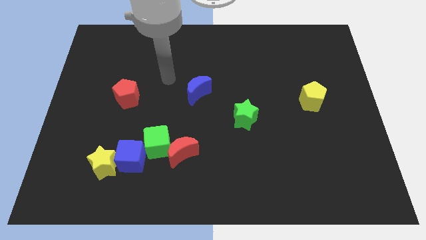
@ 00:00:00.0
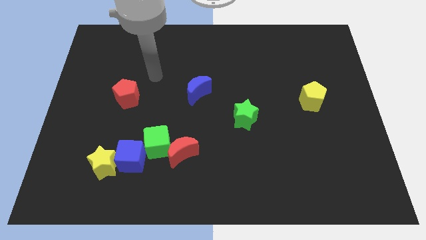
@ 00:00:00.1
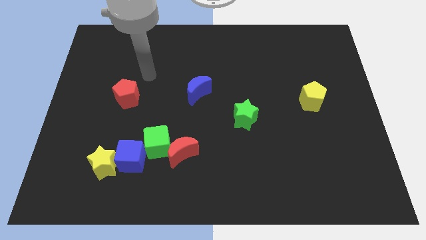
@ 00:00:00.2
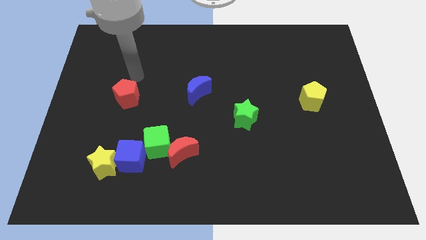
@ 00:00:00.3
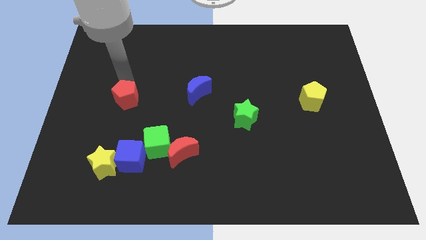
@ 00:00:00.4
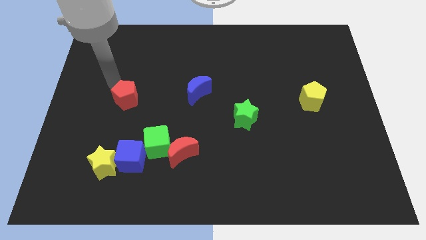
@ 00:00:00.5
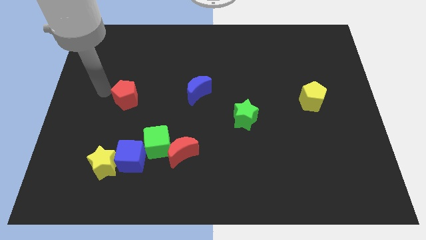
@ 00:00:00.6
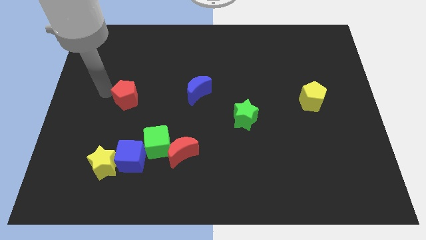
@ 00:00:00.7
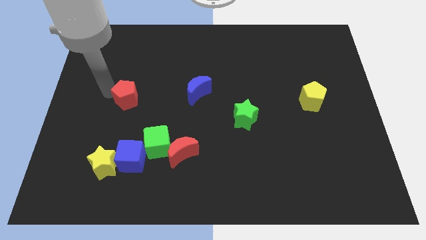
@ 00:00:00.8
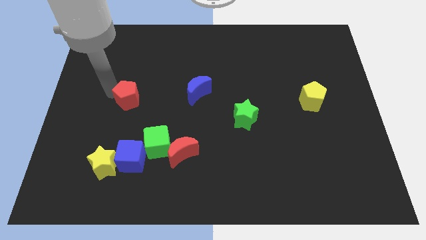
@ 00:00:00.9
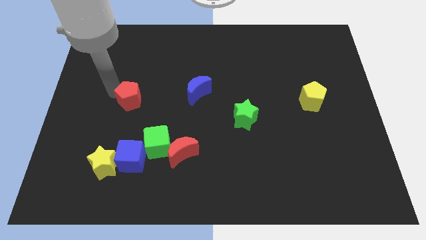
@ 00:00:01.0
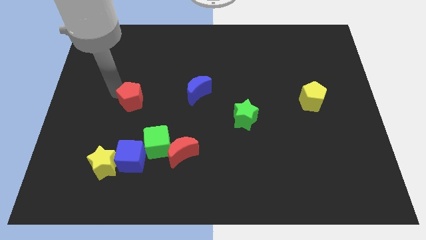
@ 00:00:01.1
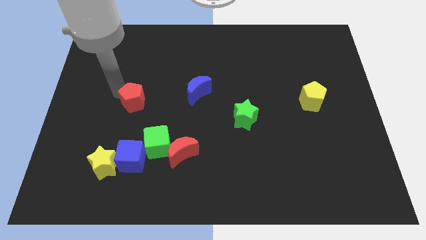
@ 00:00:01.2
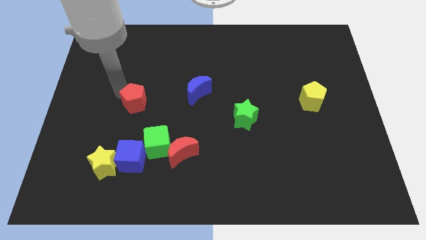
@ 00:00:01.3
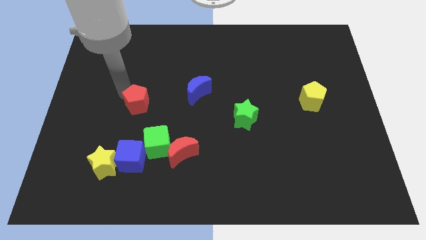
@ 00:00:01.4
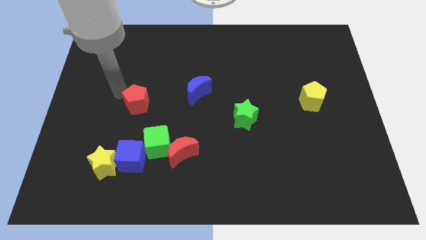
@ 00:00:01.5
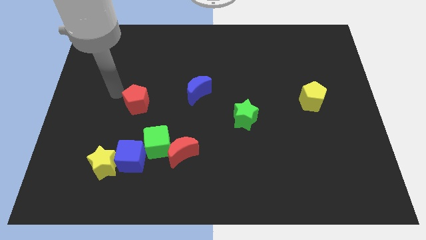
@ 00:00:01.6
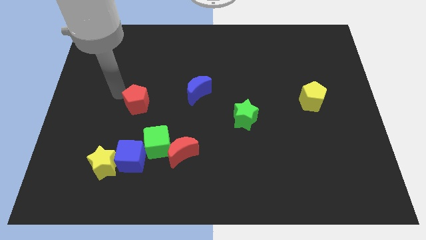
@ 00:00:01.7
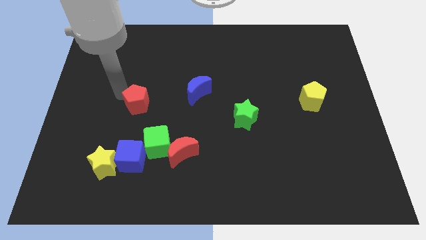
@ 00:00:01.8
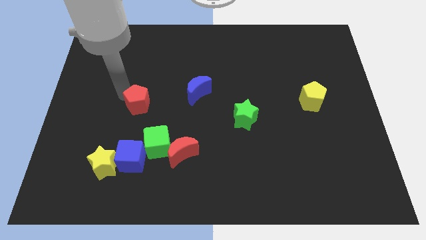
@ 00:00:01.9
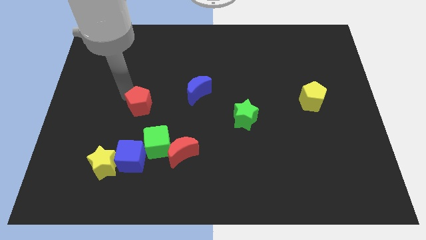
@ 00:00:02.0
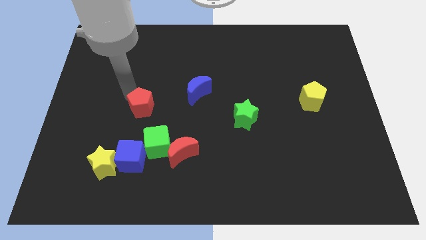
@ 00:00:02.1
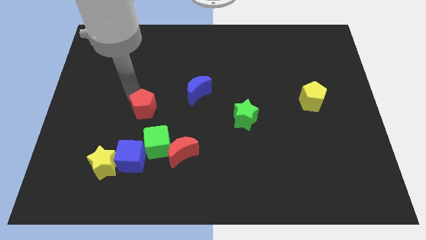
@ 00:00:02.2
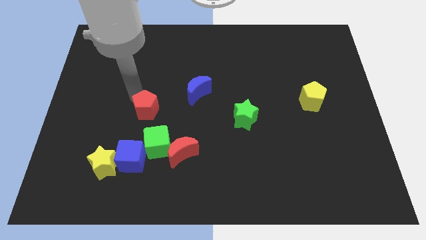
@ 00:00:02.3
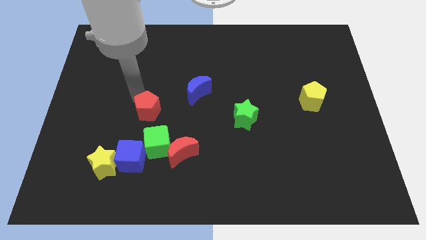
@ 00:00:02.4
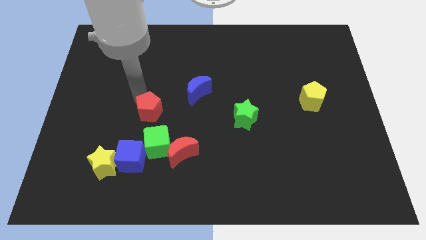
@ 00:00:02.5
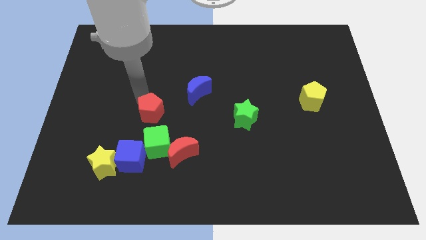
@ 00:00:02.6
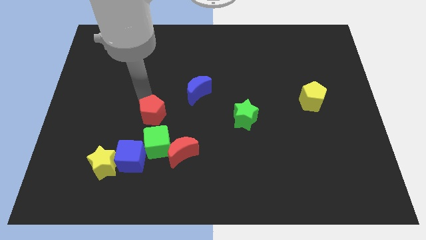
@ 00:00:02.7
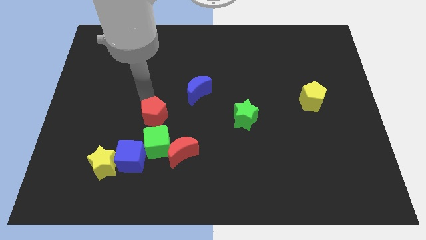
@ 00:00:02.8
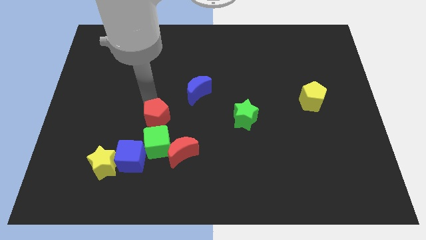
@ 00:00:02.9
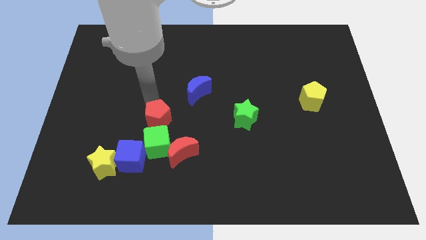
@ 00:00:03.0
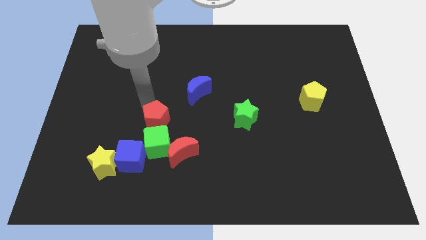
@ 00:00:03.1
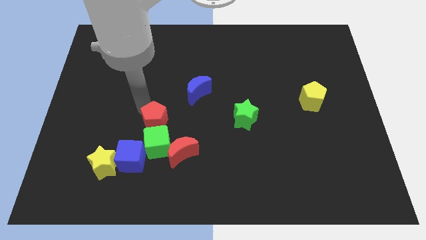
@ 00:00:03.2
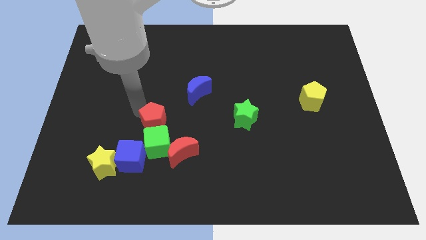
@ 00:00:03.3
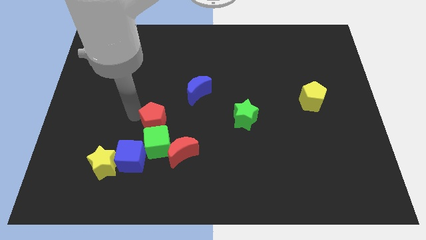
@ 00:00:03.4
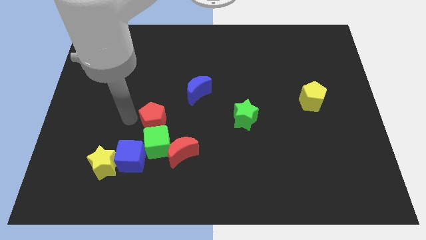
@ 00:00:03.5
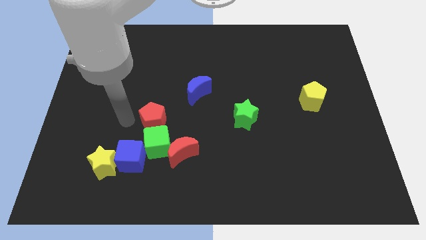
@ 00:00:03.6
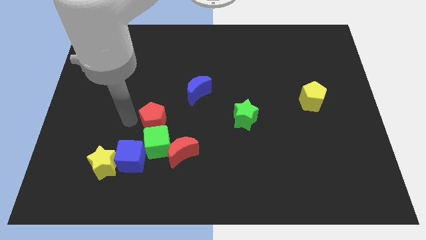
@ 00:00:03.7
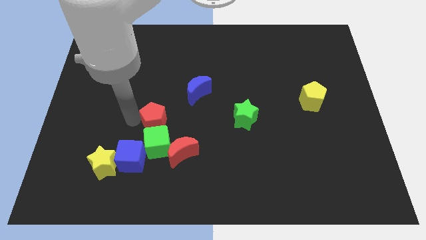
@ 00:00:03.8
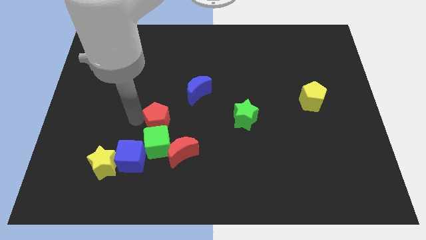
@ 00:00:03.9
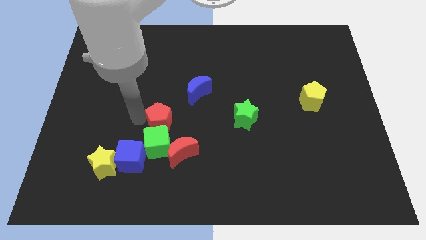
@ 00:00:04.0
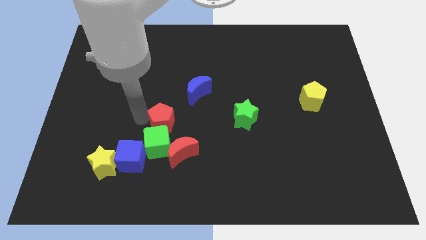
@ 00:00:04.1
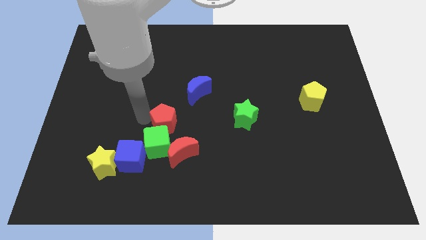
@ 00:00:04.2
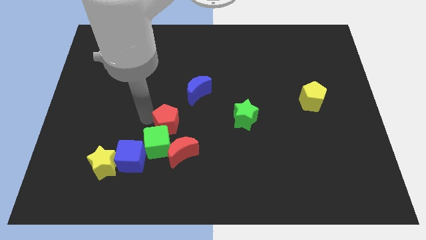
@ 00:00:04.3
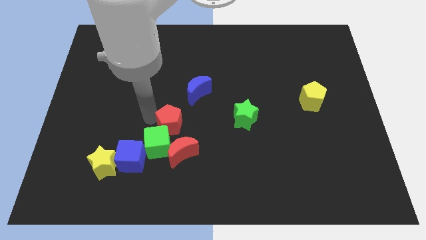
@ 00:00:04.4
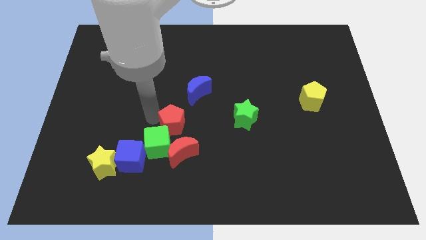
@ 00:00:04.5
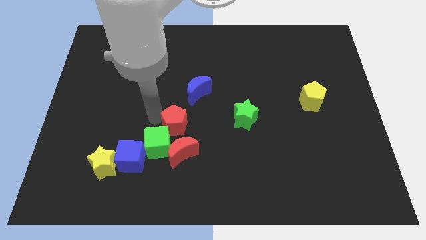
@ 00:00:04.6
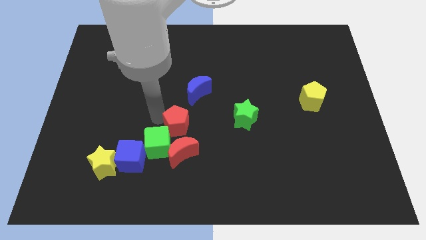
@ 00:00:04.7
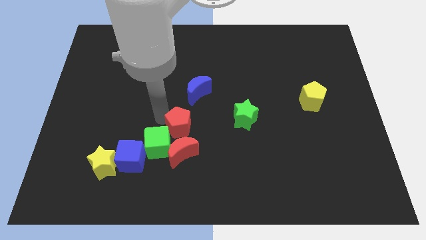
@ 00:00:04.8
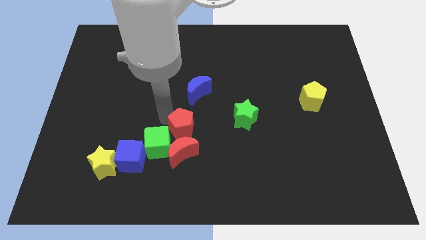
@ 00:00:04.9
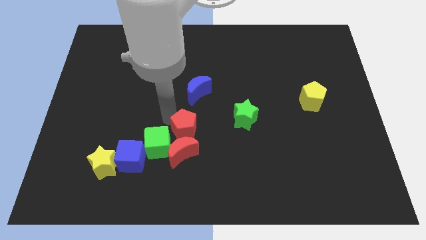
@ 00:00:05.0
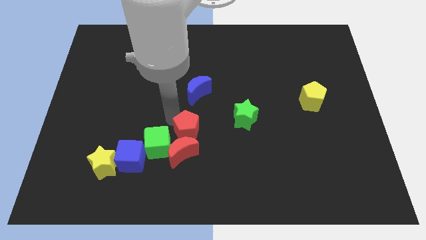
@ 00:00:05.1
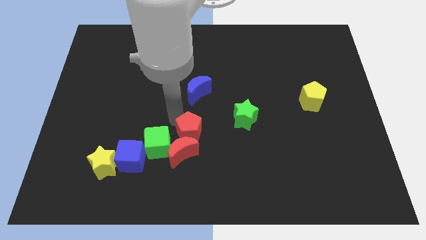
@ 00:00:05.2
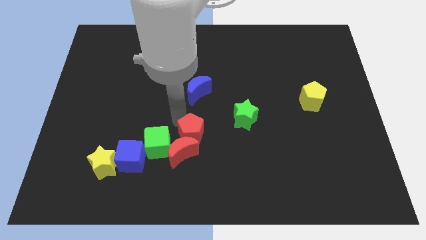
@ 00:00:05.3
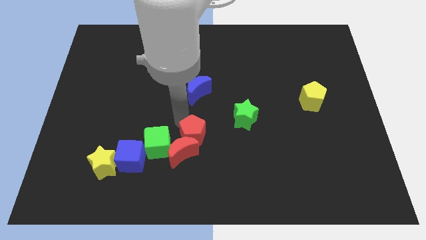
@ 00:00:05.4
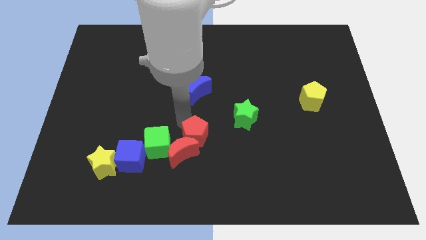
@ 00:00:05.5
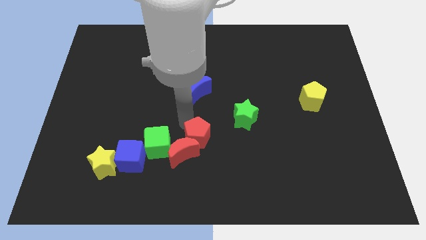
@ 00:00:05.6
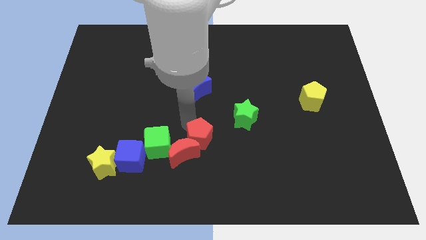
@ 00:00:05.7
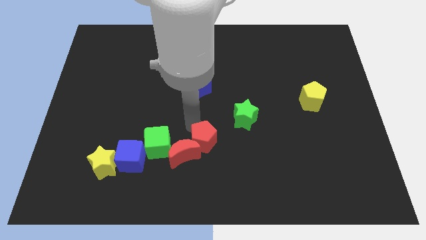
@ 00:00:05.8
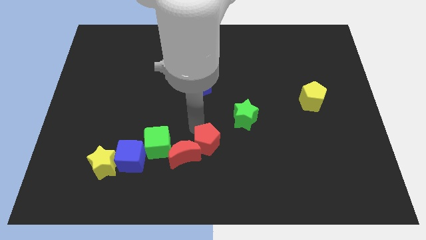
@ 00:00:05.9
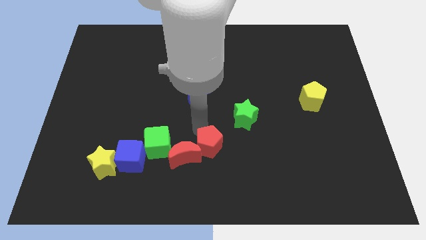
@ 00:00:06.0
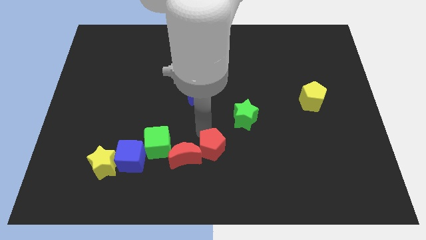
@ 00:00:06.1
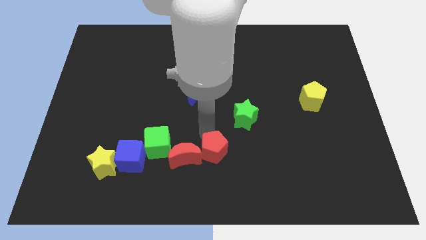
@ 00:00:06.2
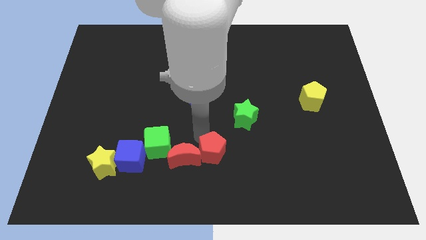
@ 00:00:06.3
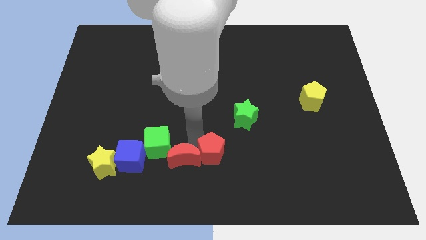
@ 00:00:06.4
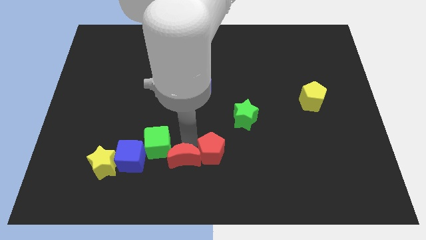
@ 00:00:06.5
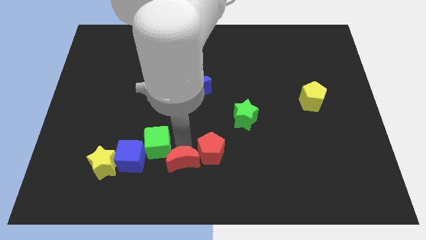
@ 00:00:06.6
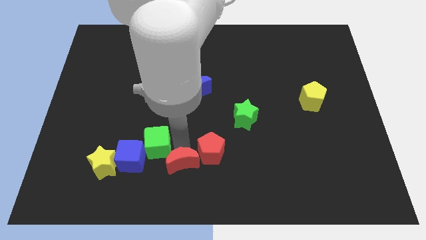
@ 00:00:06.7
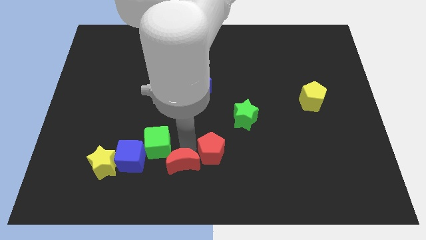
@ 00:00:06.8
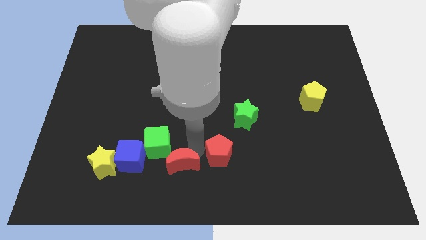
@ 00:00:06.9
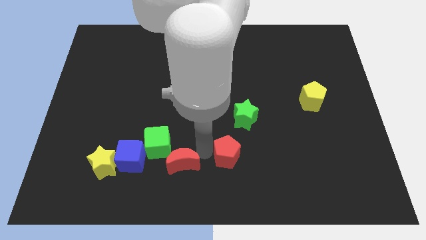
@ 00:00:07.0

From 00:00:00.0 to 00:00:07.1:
put the red pentagon below the green star

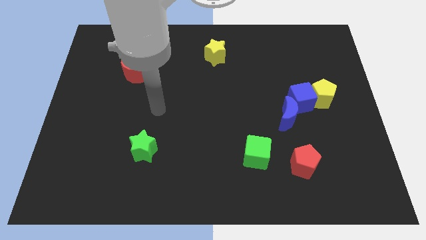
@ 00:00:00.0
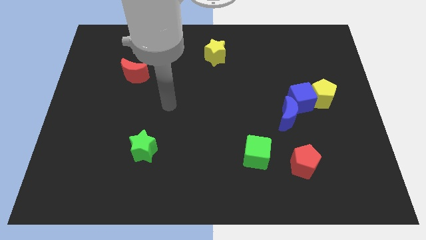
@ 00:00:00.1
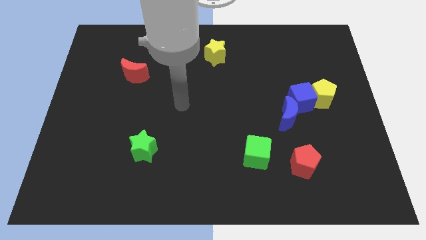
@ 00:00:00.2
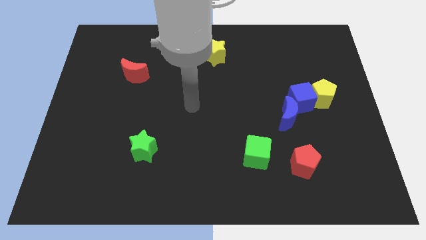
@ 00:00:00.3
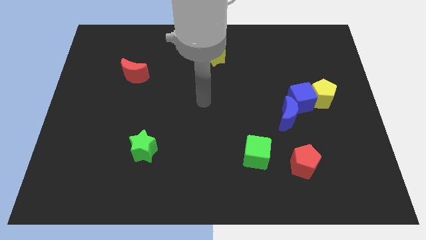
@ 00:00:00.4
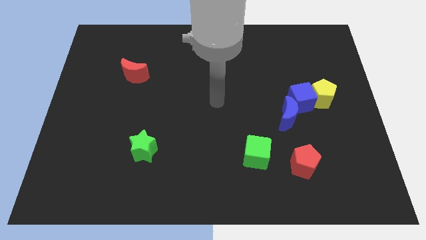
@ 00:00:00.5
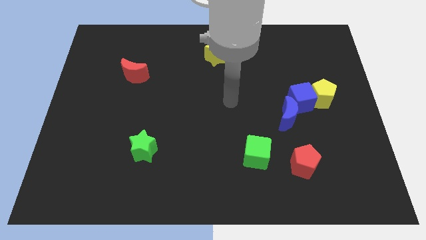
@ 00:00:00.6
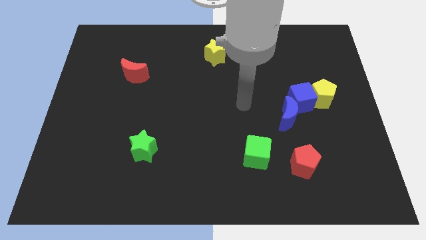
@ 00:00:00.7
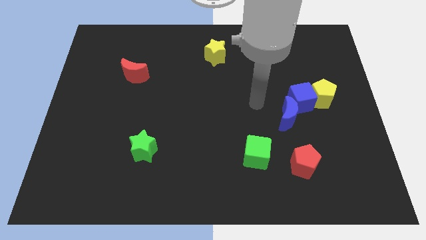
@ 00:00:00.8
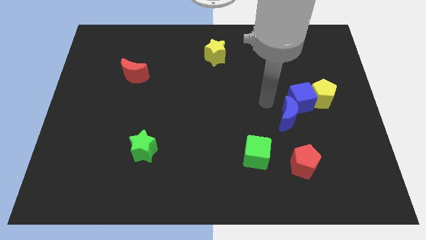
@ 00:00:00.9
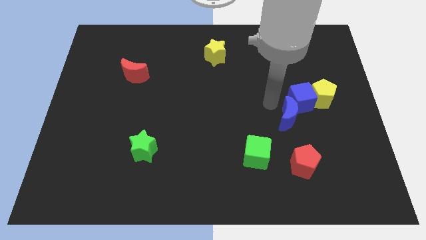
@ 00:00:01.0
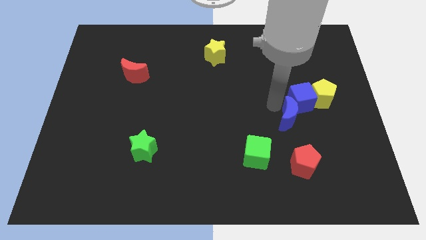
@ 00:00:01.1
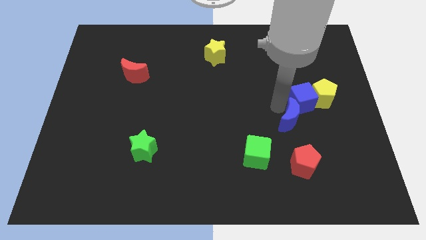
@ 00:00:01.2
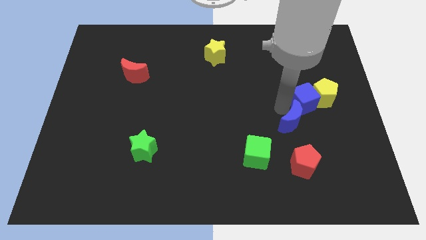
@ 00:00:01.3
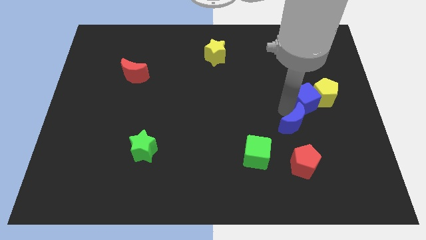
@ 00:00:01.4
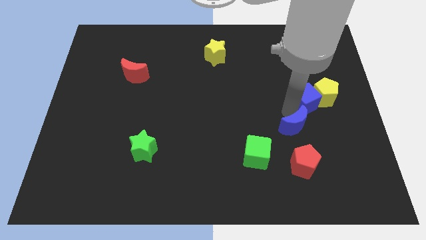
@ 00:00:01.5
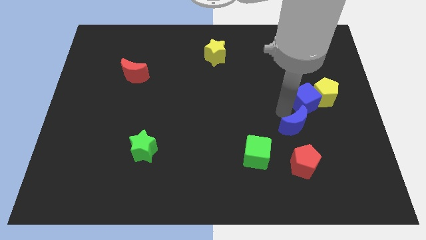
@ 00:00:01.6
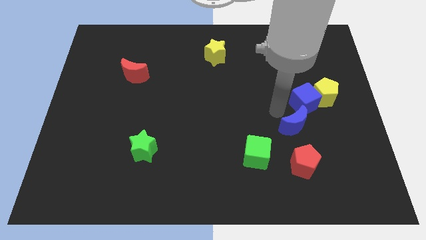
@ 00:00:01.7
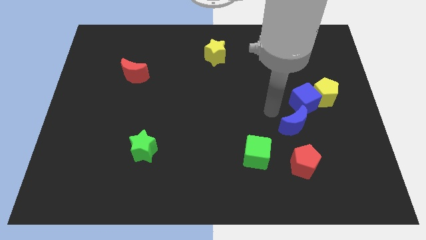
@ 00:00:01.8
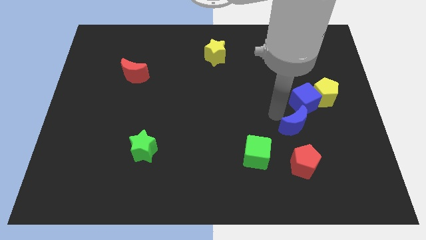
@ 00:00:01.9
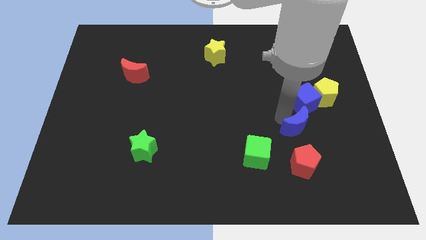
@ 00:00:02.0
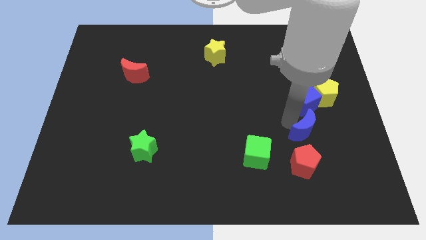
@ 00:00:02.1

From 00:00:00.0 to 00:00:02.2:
slide the blue moon to the top right of the red pentagon
